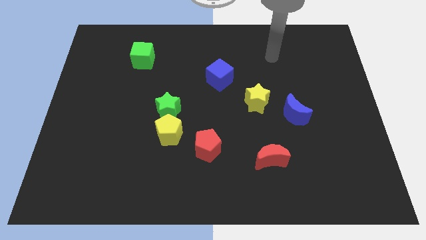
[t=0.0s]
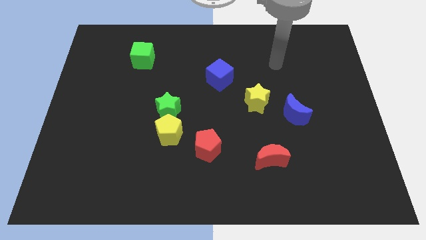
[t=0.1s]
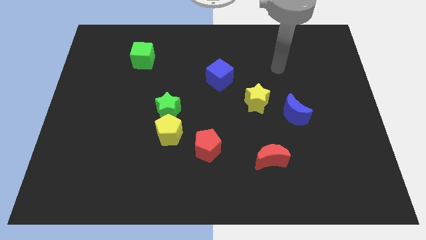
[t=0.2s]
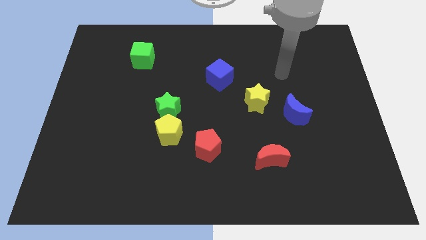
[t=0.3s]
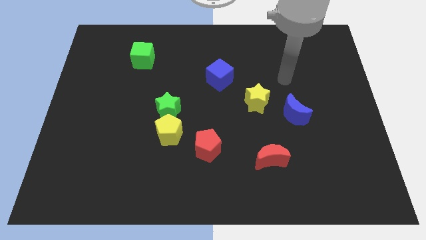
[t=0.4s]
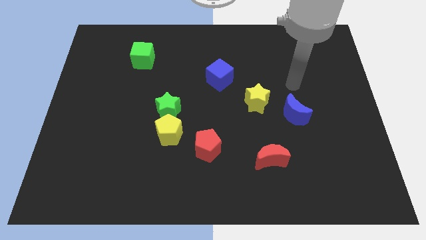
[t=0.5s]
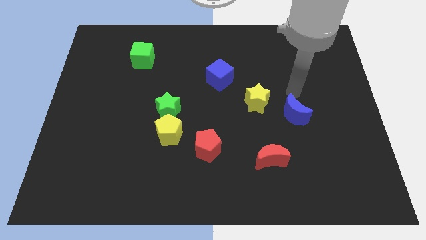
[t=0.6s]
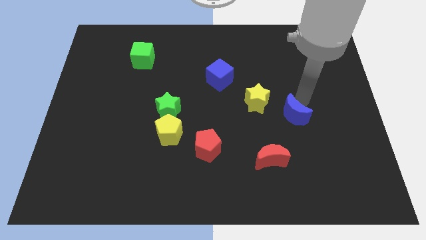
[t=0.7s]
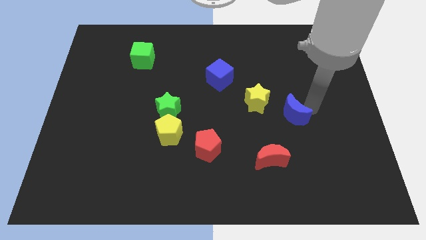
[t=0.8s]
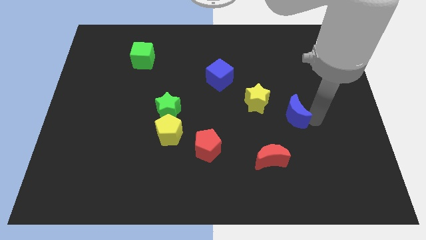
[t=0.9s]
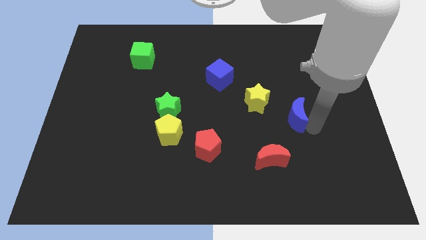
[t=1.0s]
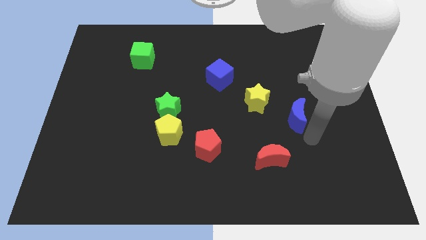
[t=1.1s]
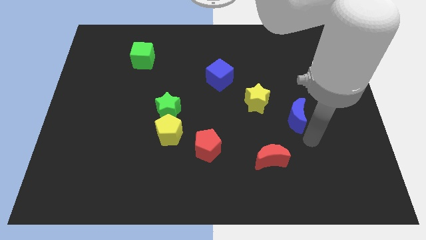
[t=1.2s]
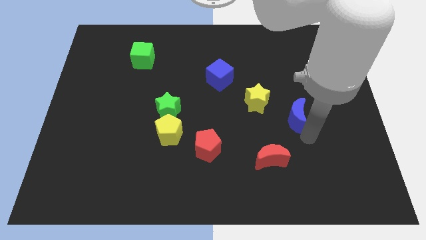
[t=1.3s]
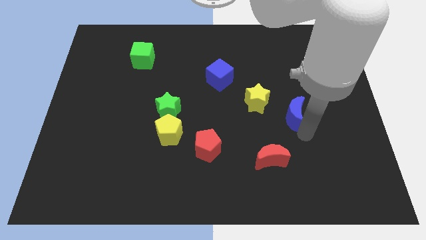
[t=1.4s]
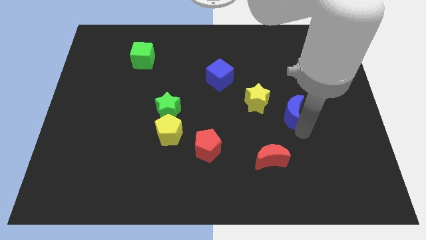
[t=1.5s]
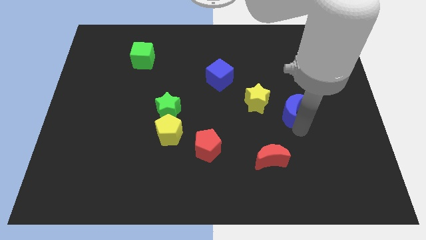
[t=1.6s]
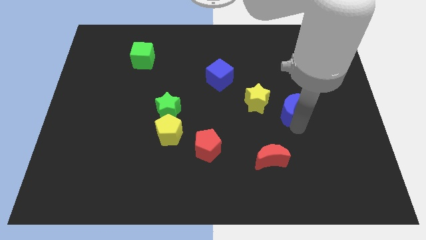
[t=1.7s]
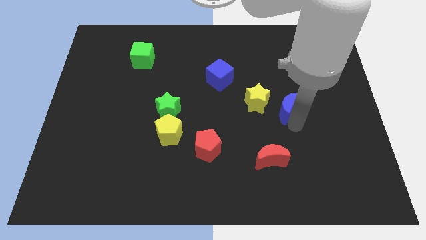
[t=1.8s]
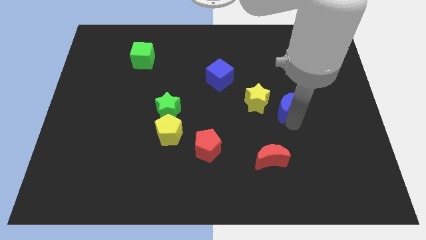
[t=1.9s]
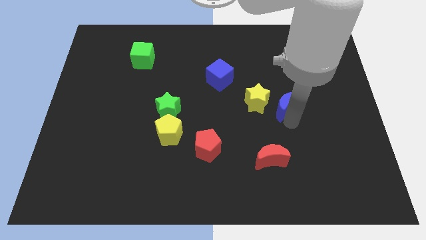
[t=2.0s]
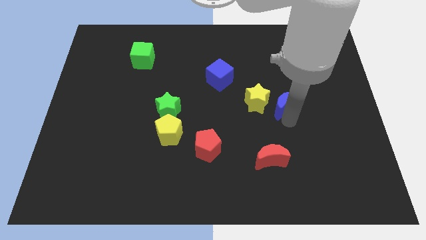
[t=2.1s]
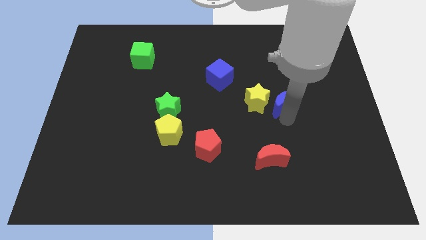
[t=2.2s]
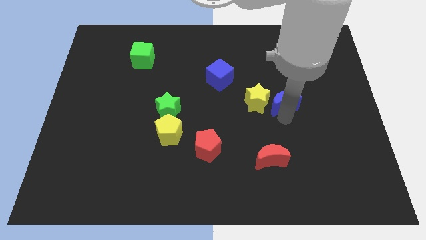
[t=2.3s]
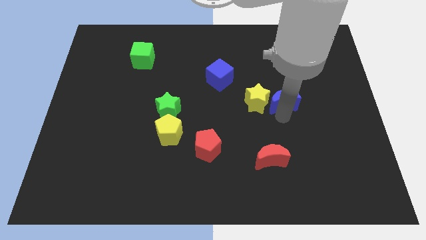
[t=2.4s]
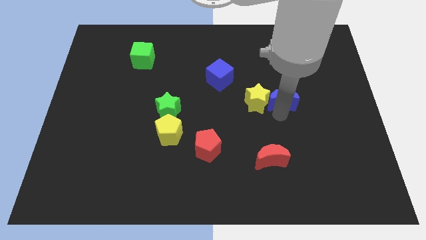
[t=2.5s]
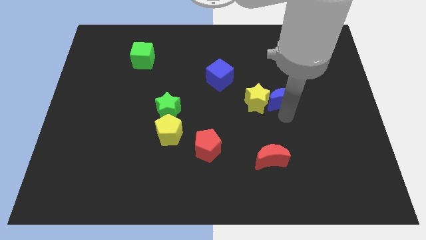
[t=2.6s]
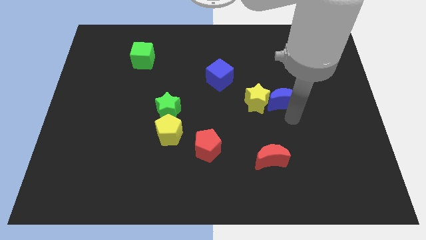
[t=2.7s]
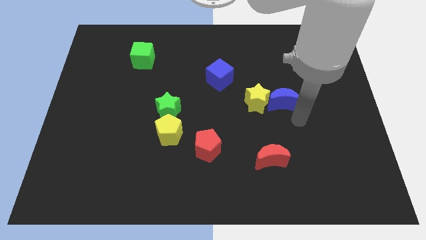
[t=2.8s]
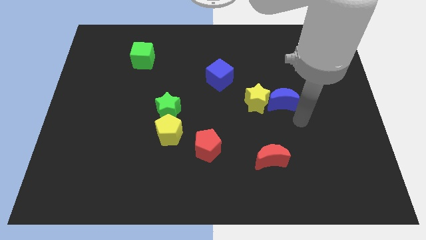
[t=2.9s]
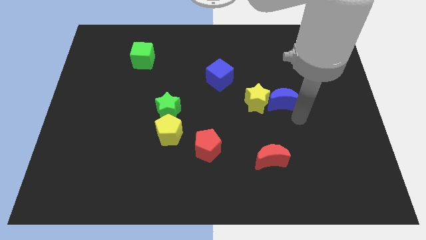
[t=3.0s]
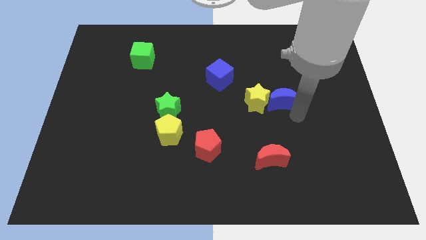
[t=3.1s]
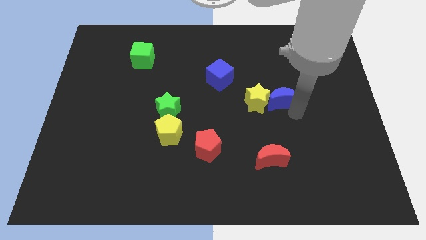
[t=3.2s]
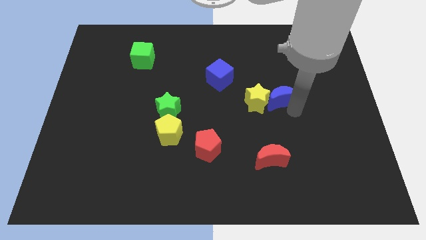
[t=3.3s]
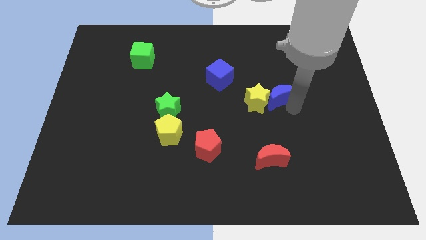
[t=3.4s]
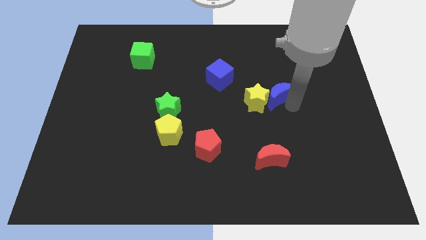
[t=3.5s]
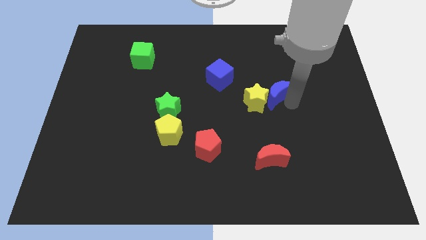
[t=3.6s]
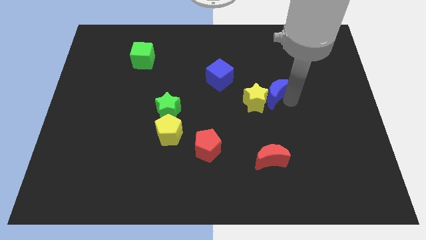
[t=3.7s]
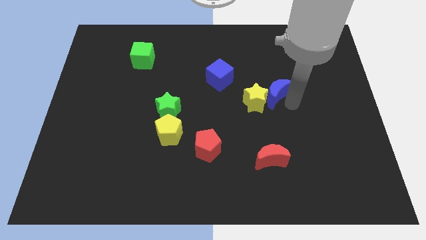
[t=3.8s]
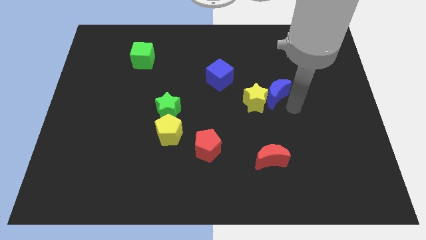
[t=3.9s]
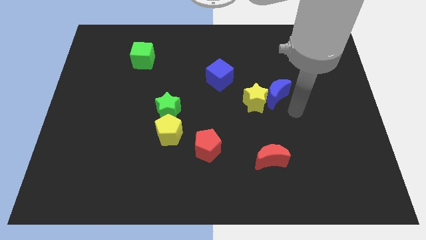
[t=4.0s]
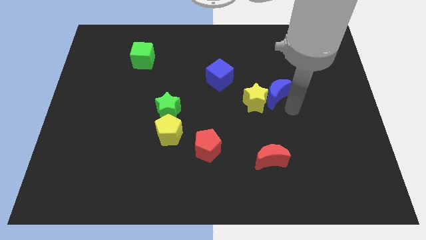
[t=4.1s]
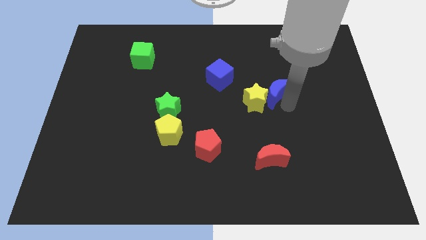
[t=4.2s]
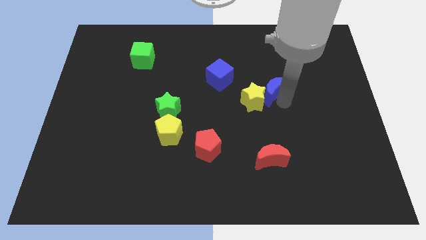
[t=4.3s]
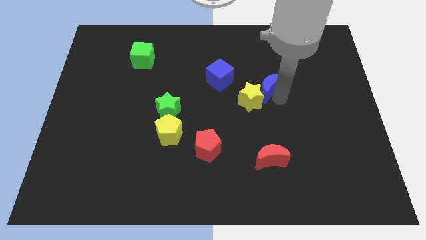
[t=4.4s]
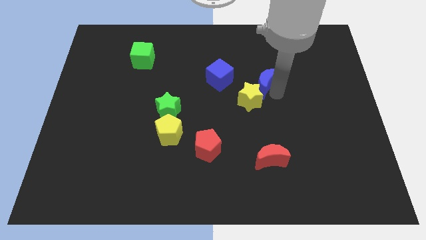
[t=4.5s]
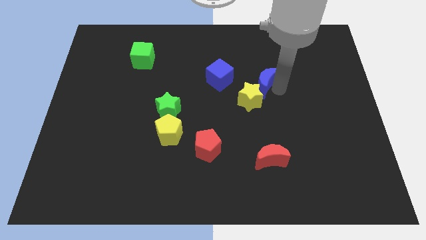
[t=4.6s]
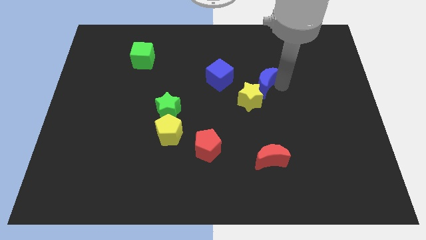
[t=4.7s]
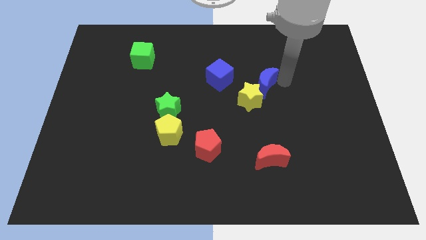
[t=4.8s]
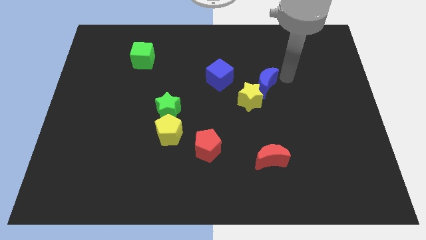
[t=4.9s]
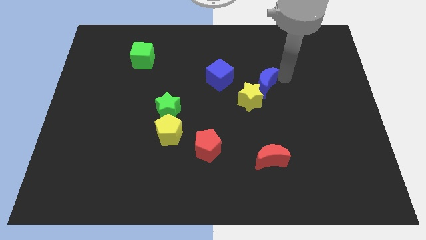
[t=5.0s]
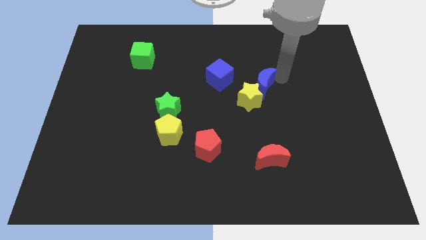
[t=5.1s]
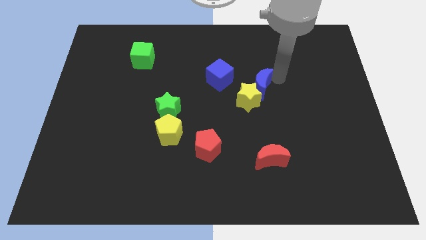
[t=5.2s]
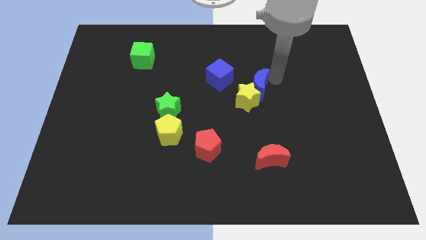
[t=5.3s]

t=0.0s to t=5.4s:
put the blue moon to the bottom right of the blue cube

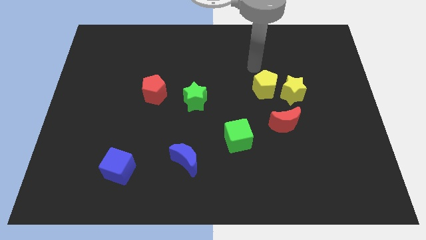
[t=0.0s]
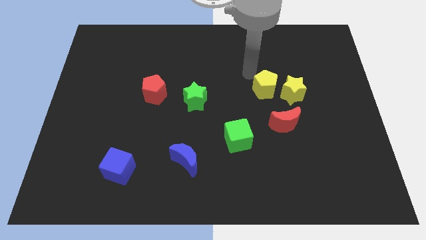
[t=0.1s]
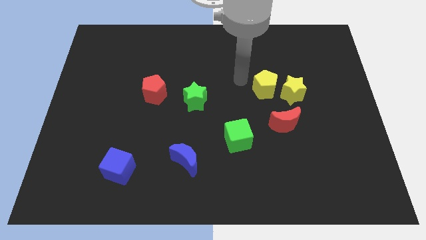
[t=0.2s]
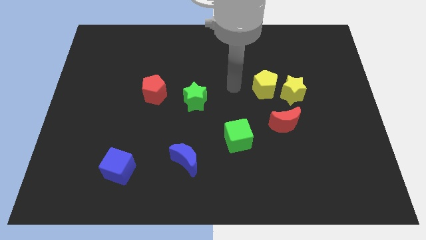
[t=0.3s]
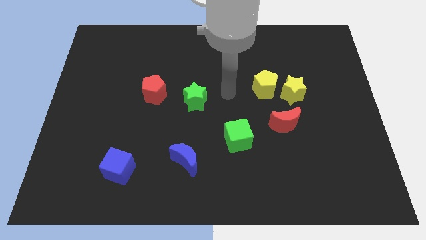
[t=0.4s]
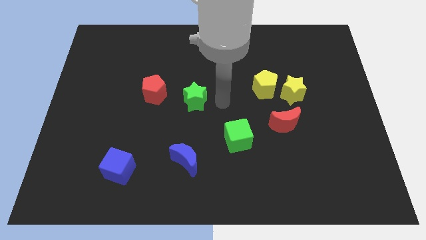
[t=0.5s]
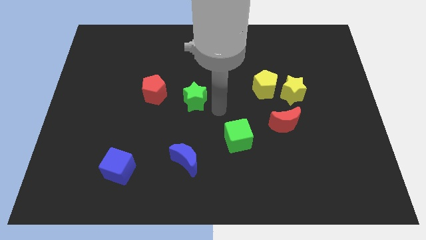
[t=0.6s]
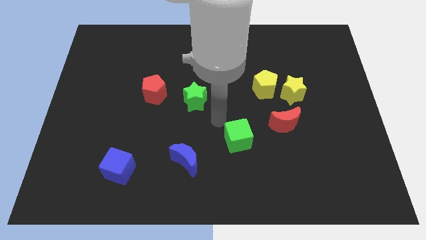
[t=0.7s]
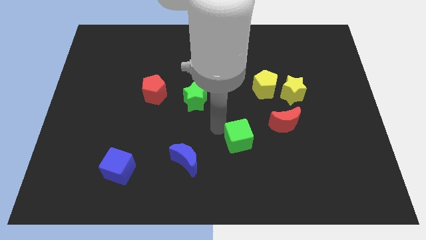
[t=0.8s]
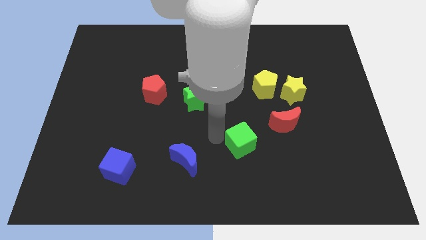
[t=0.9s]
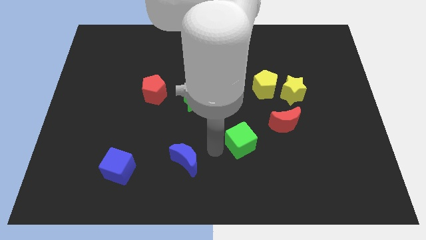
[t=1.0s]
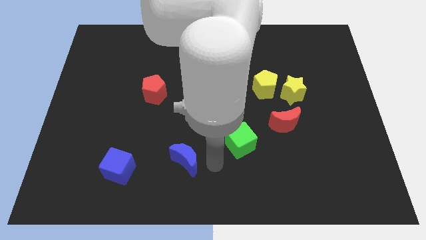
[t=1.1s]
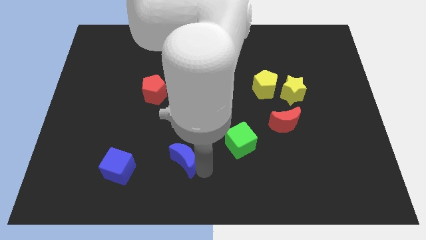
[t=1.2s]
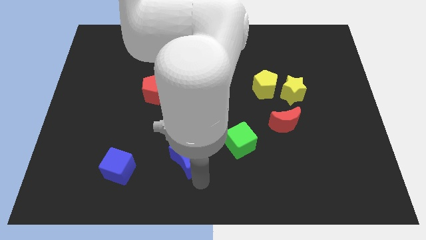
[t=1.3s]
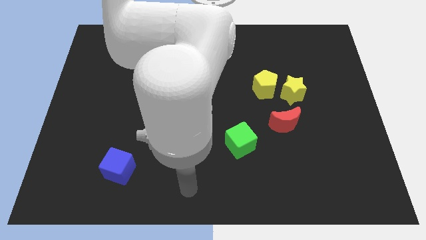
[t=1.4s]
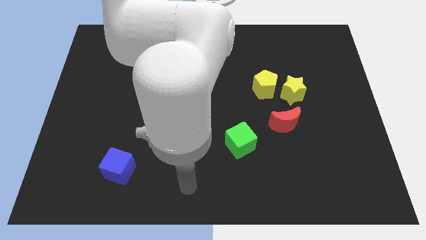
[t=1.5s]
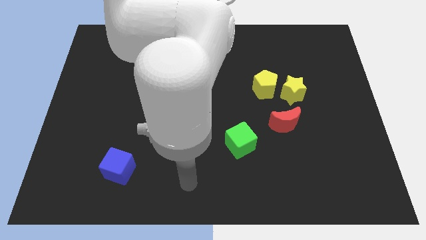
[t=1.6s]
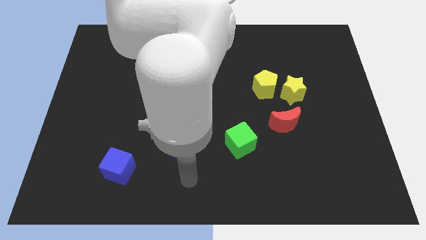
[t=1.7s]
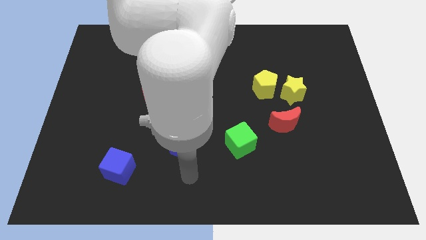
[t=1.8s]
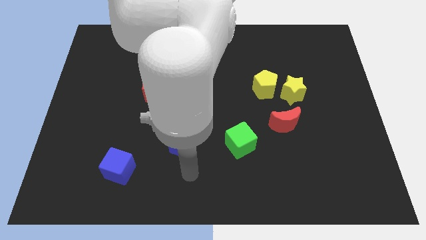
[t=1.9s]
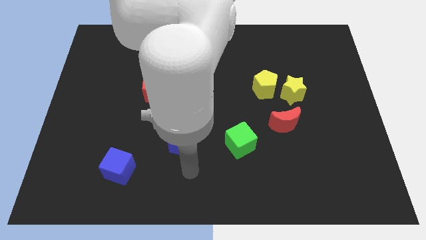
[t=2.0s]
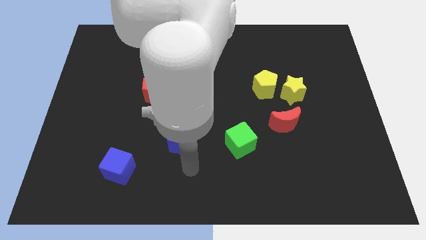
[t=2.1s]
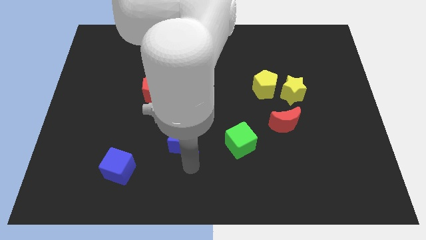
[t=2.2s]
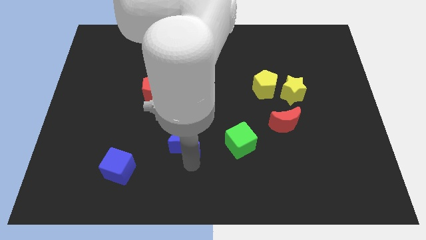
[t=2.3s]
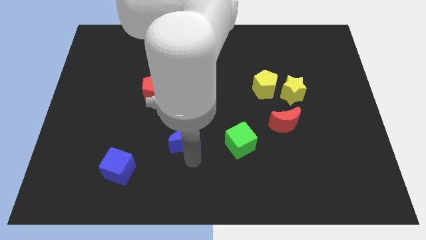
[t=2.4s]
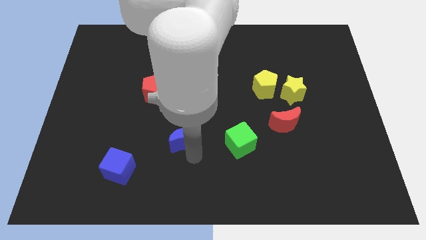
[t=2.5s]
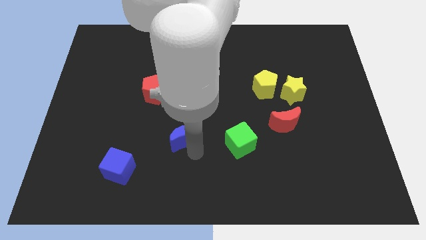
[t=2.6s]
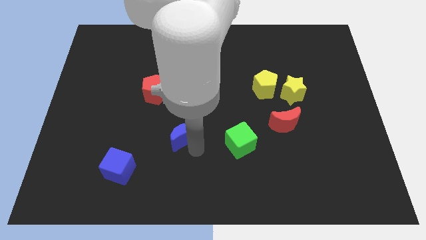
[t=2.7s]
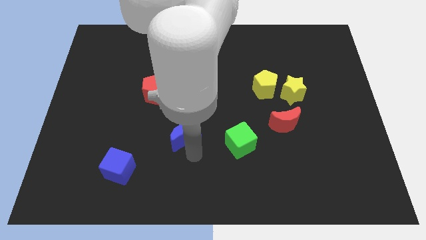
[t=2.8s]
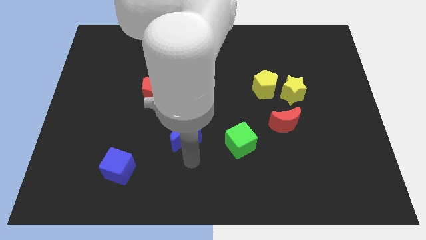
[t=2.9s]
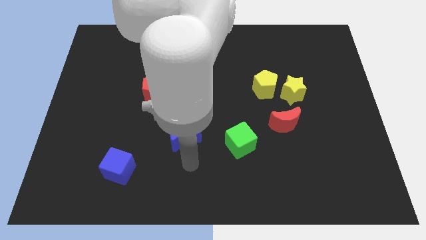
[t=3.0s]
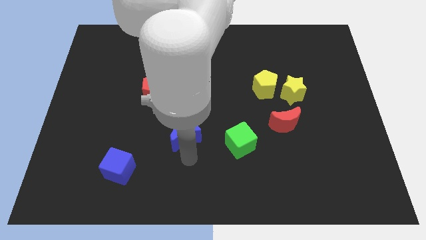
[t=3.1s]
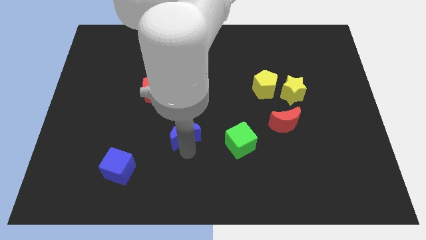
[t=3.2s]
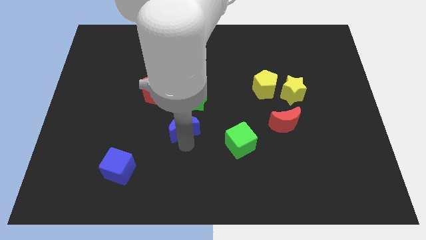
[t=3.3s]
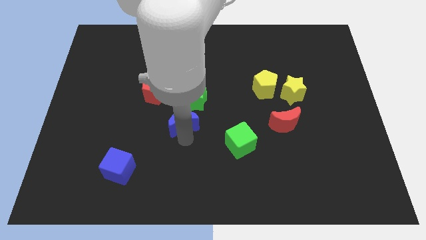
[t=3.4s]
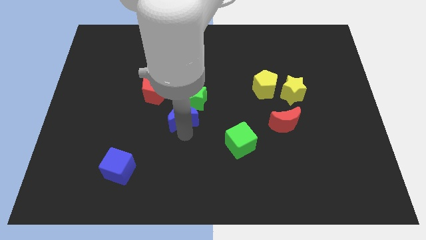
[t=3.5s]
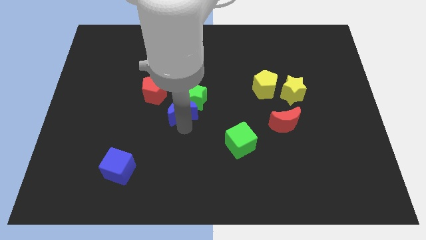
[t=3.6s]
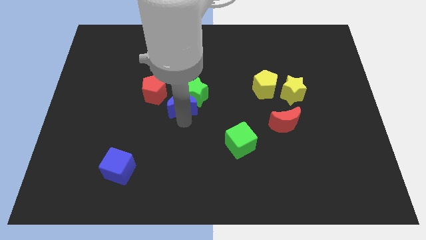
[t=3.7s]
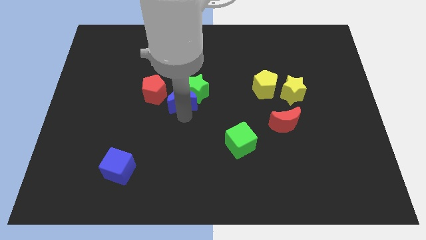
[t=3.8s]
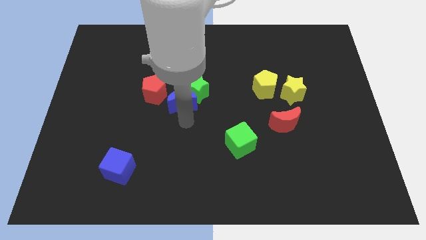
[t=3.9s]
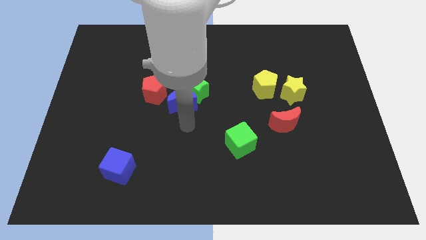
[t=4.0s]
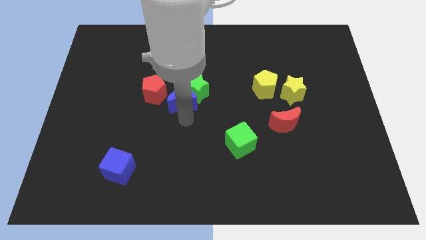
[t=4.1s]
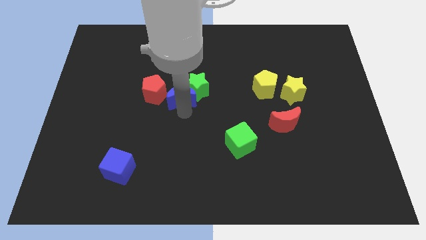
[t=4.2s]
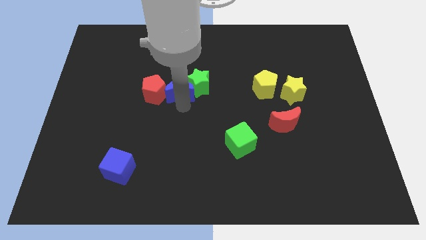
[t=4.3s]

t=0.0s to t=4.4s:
move the blue moon to the top right side of the red pentagon
